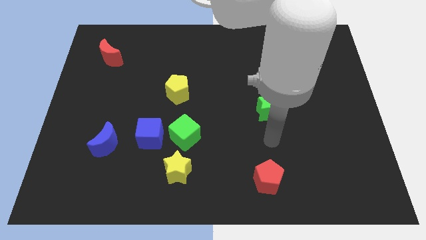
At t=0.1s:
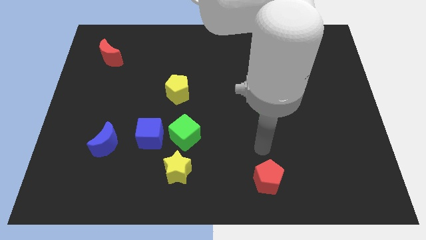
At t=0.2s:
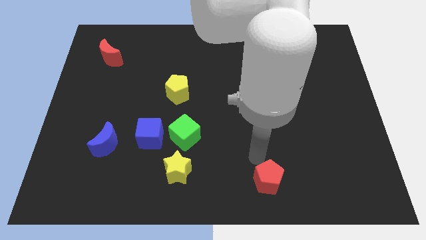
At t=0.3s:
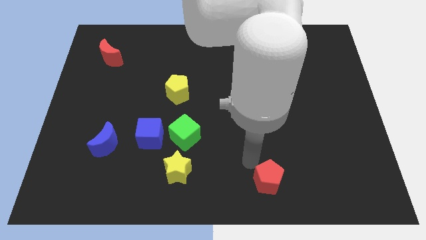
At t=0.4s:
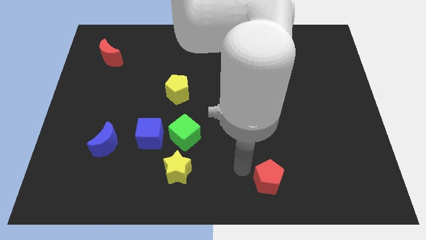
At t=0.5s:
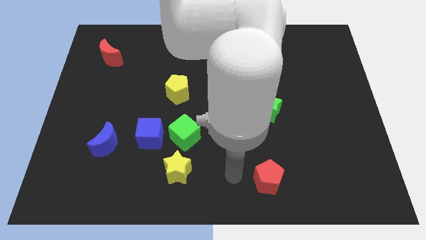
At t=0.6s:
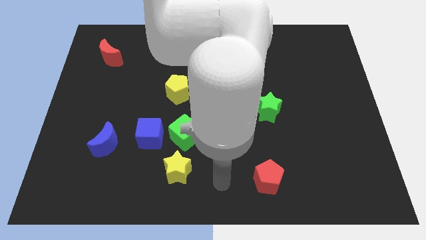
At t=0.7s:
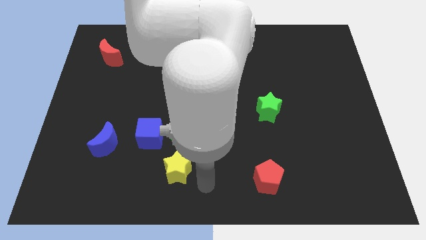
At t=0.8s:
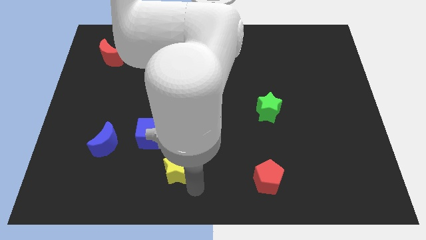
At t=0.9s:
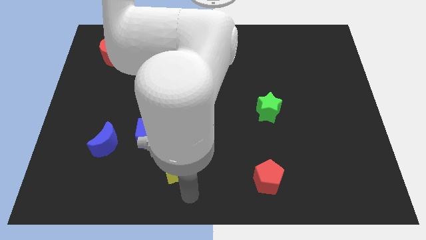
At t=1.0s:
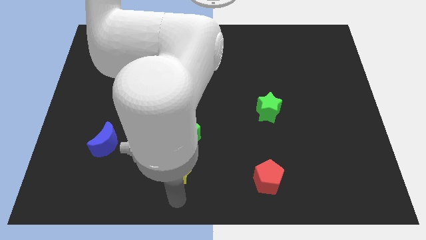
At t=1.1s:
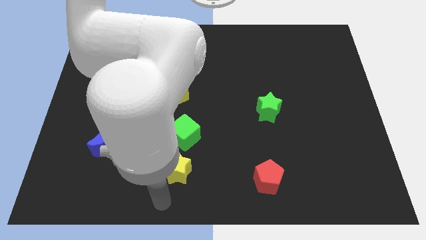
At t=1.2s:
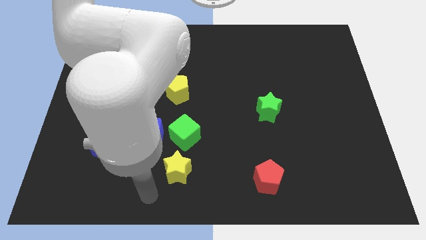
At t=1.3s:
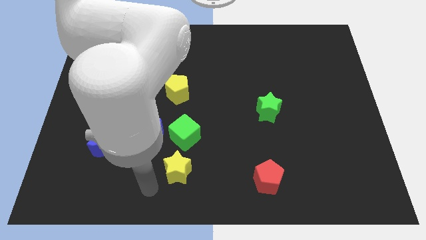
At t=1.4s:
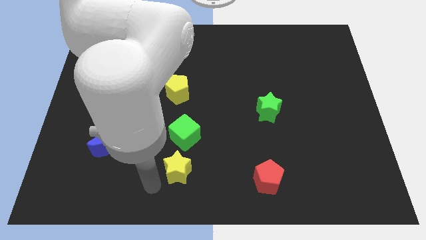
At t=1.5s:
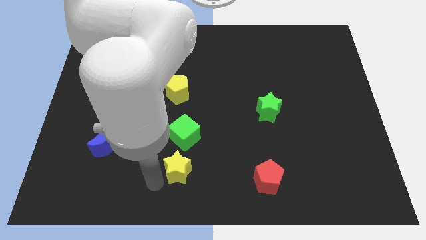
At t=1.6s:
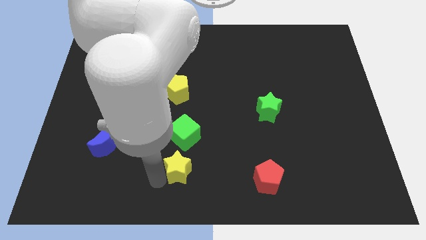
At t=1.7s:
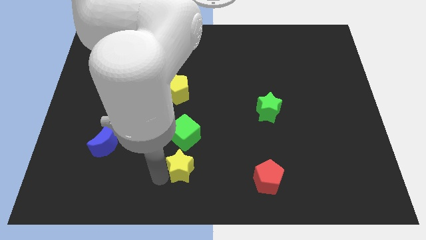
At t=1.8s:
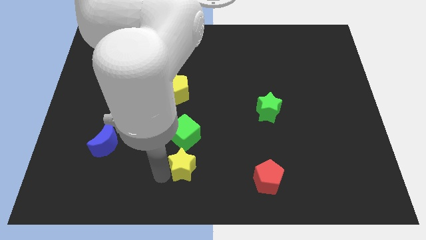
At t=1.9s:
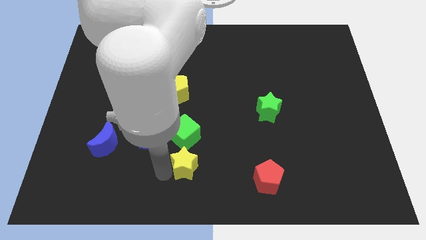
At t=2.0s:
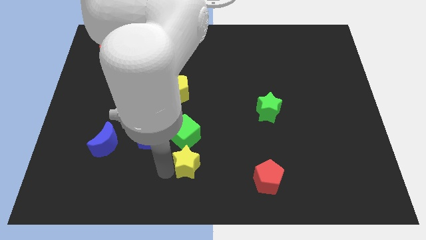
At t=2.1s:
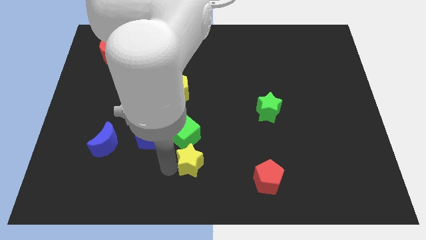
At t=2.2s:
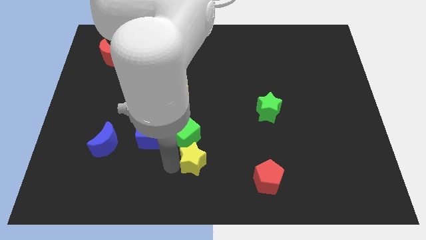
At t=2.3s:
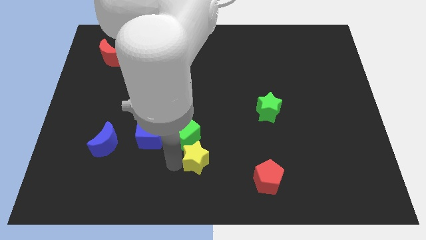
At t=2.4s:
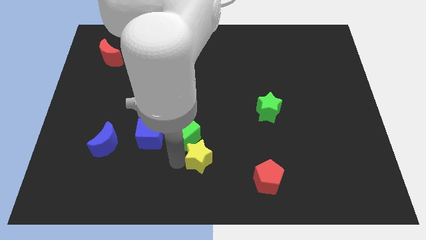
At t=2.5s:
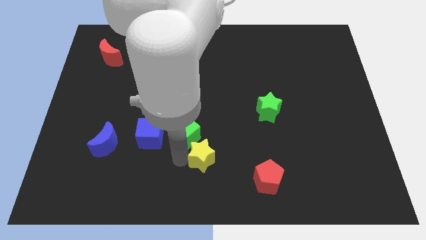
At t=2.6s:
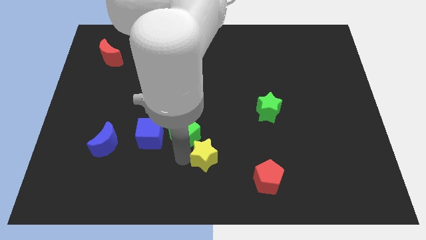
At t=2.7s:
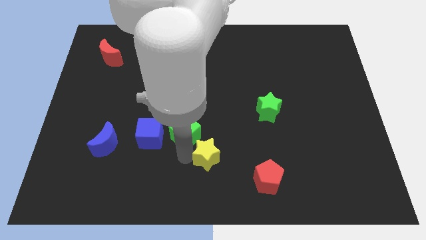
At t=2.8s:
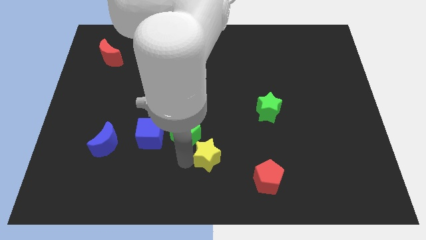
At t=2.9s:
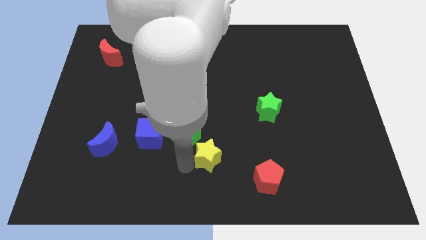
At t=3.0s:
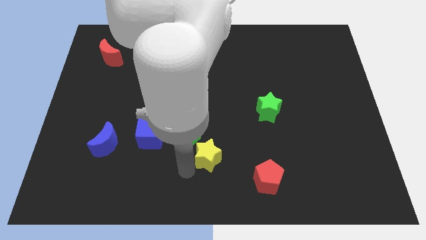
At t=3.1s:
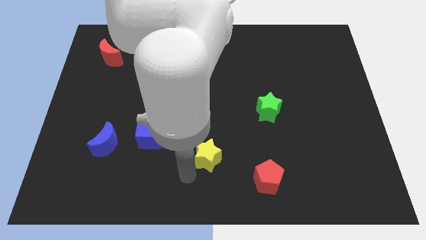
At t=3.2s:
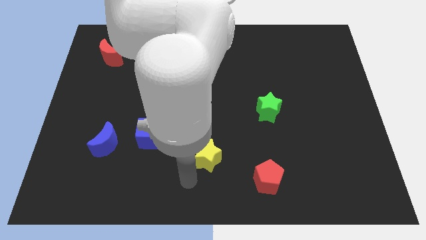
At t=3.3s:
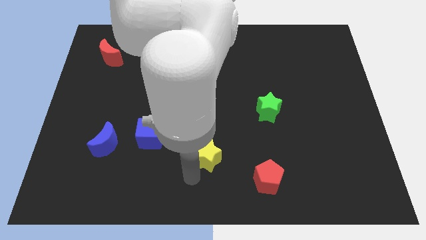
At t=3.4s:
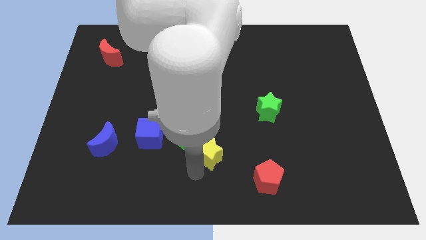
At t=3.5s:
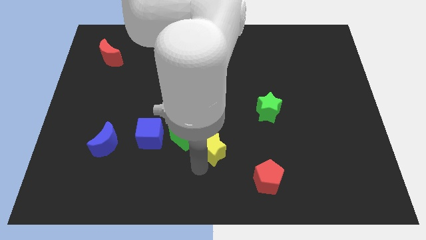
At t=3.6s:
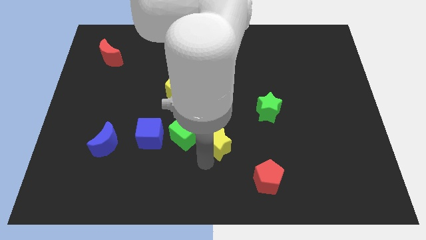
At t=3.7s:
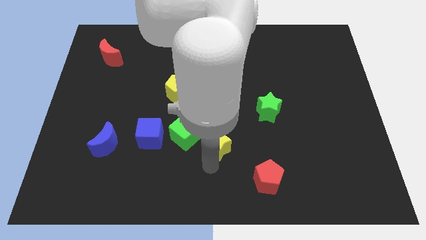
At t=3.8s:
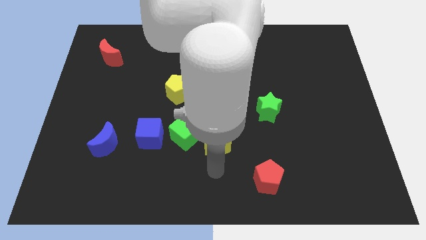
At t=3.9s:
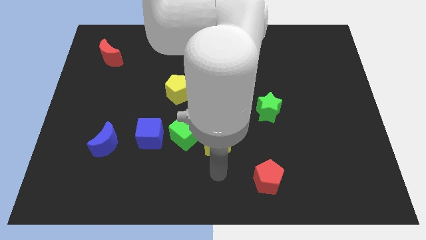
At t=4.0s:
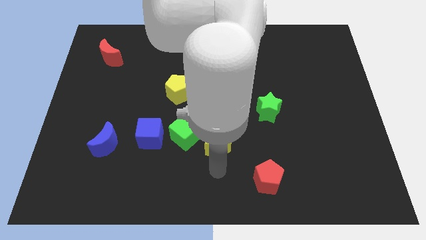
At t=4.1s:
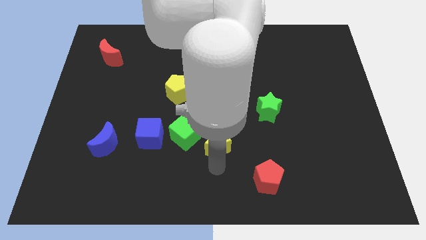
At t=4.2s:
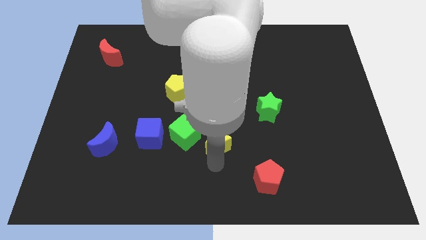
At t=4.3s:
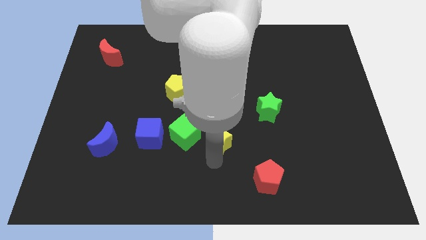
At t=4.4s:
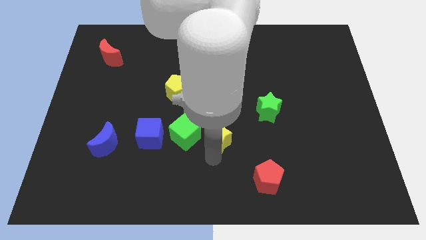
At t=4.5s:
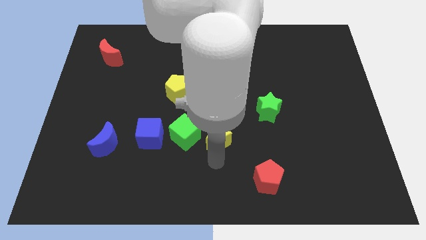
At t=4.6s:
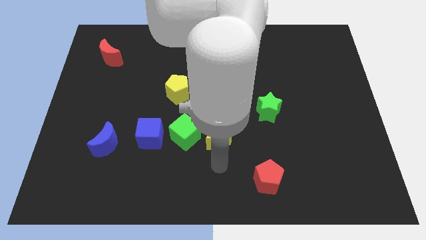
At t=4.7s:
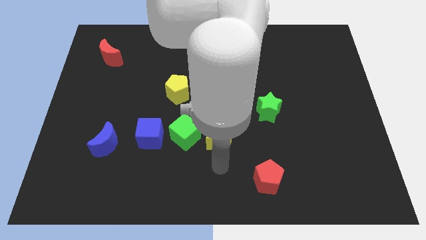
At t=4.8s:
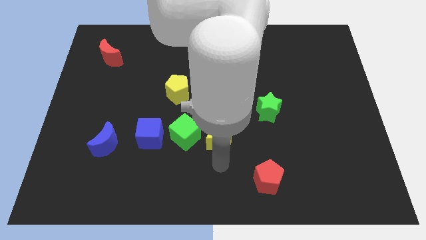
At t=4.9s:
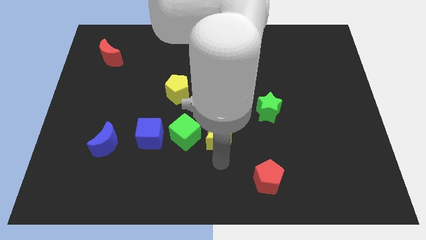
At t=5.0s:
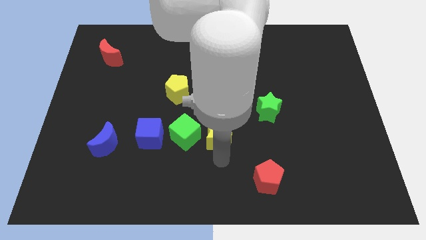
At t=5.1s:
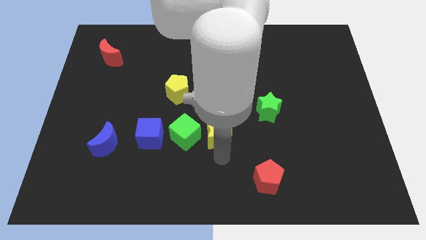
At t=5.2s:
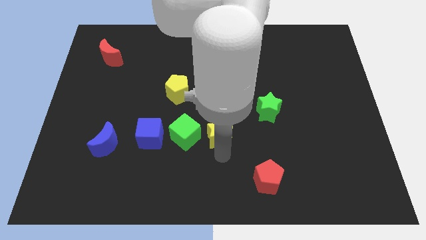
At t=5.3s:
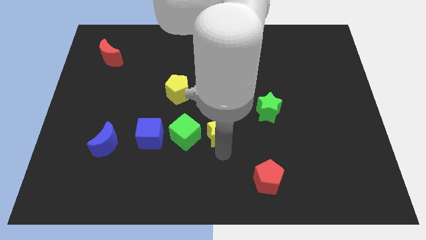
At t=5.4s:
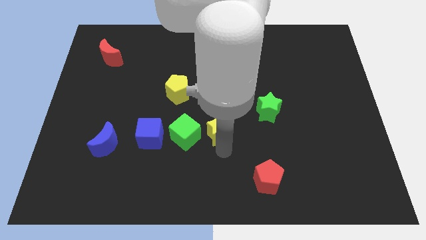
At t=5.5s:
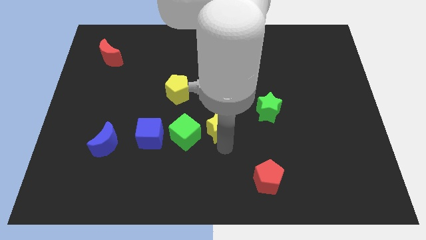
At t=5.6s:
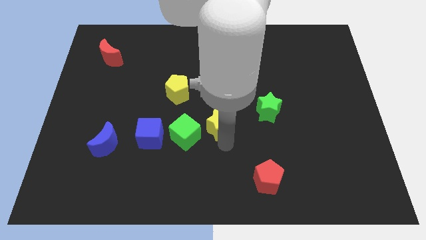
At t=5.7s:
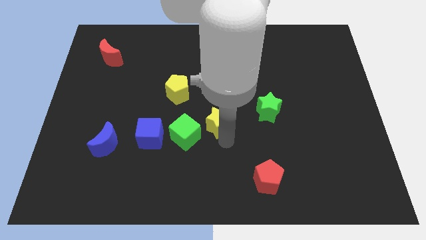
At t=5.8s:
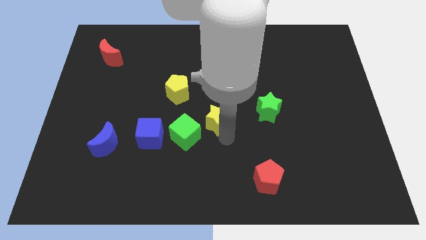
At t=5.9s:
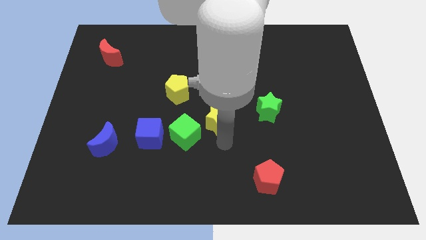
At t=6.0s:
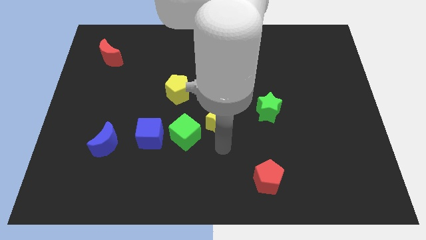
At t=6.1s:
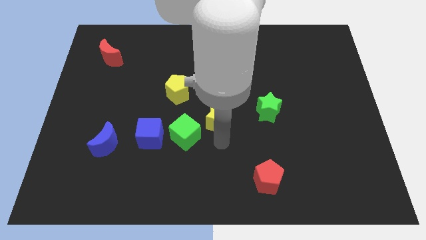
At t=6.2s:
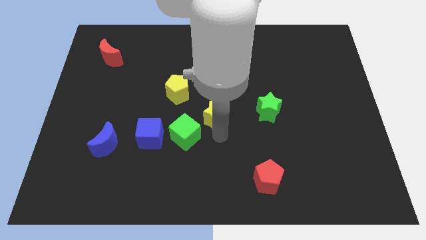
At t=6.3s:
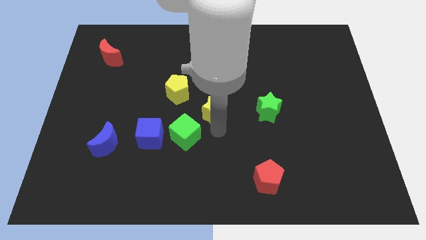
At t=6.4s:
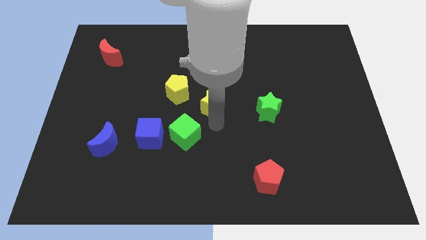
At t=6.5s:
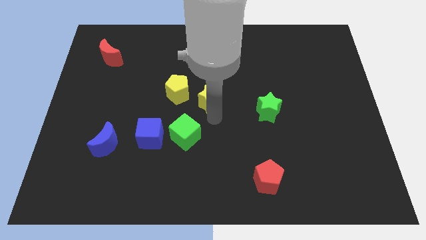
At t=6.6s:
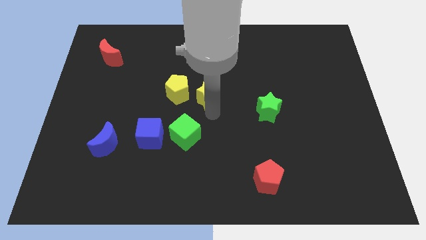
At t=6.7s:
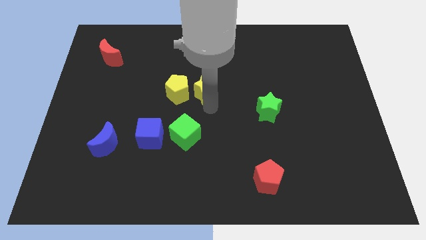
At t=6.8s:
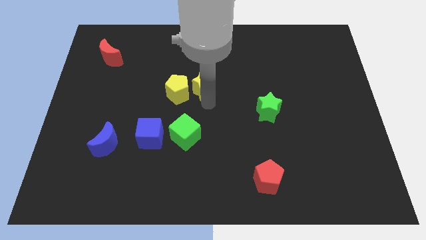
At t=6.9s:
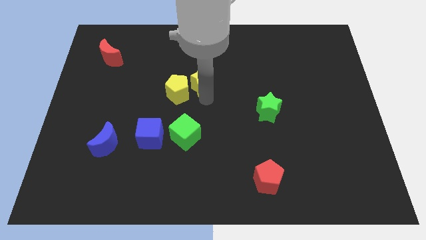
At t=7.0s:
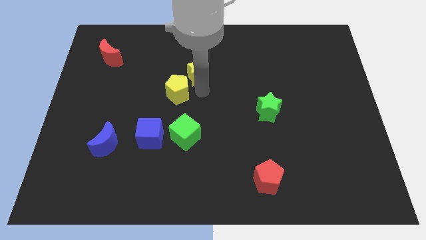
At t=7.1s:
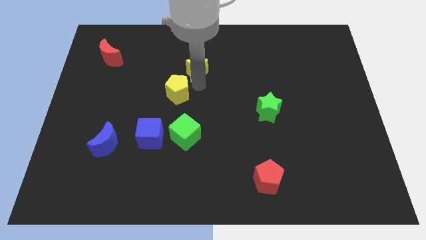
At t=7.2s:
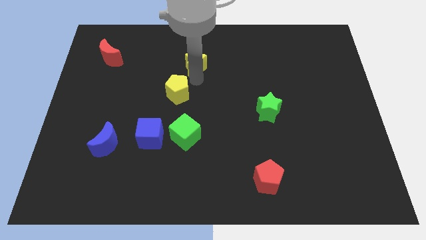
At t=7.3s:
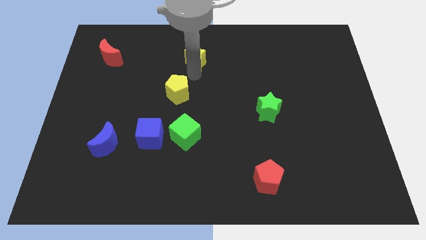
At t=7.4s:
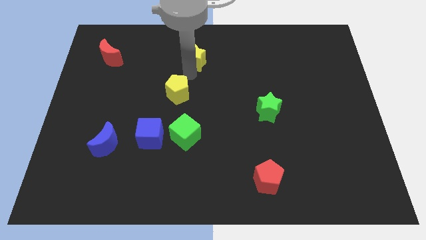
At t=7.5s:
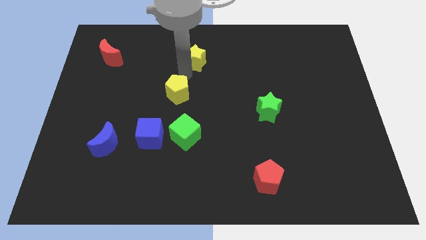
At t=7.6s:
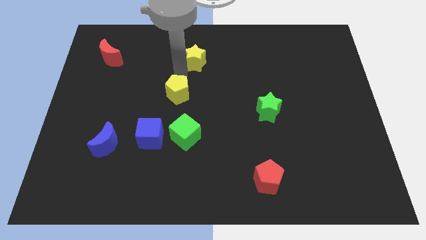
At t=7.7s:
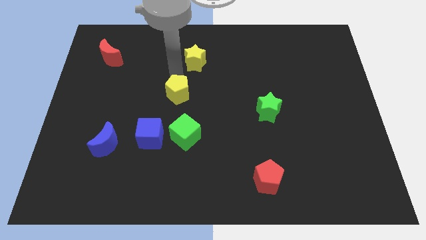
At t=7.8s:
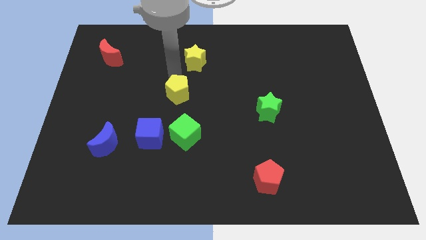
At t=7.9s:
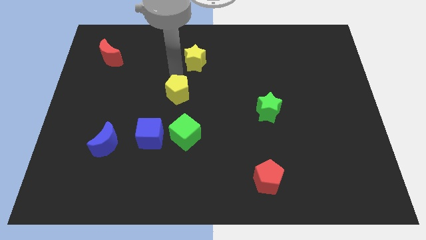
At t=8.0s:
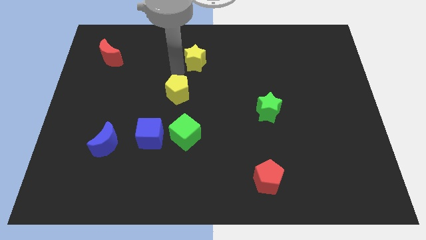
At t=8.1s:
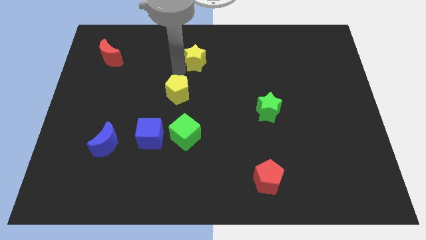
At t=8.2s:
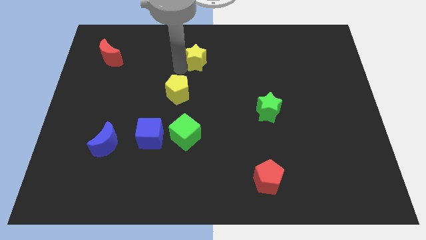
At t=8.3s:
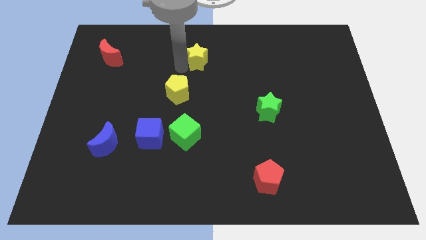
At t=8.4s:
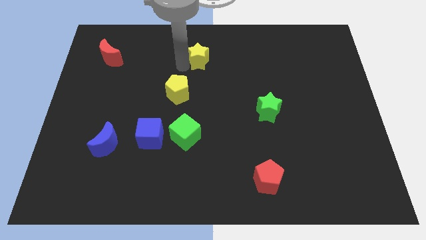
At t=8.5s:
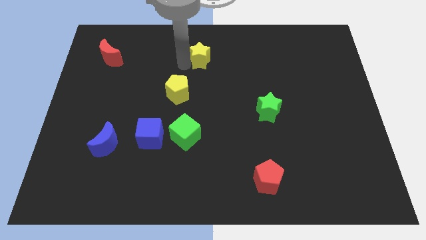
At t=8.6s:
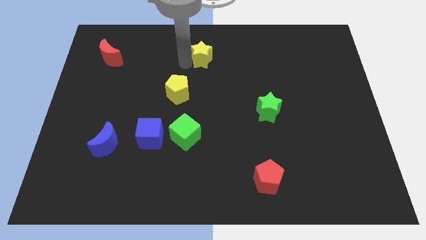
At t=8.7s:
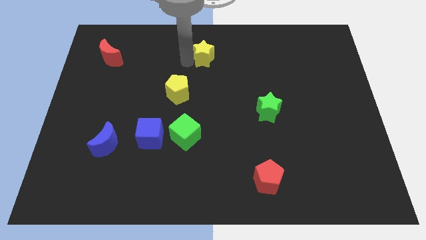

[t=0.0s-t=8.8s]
put the yellow star to the top
